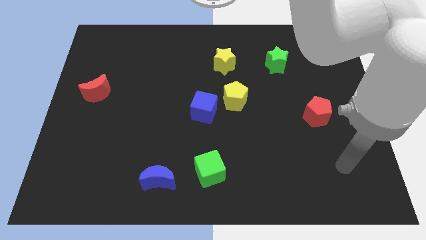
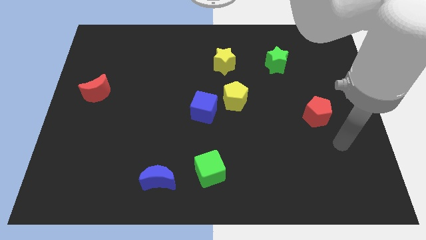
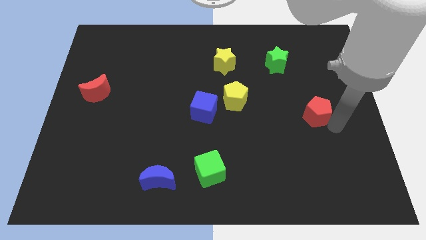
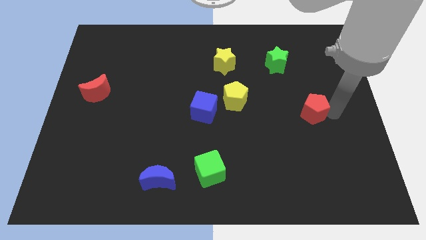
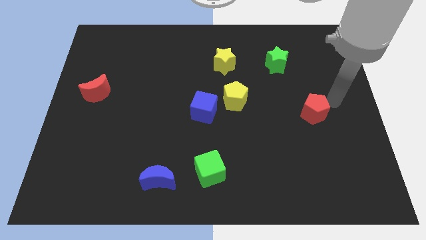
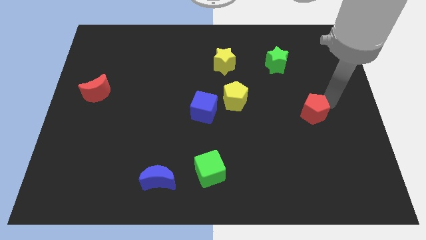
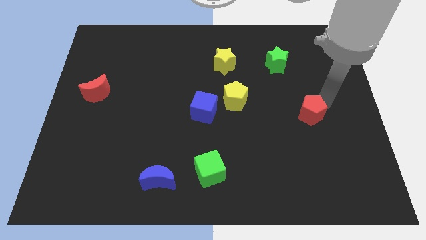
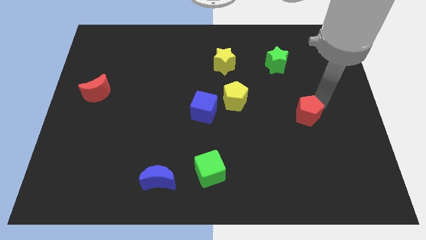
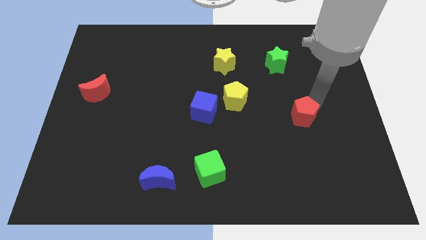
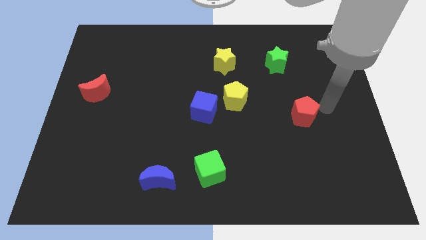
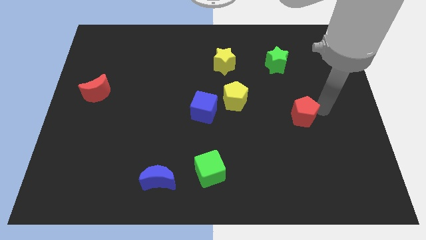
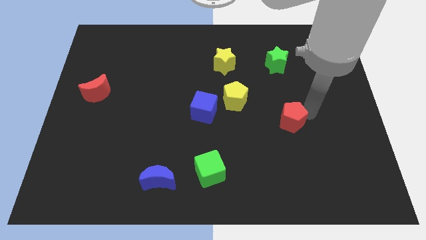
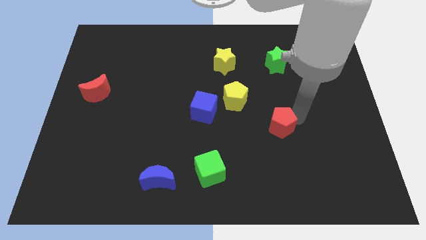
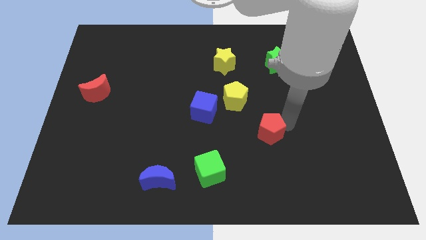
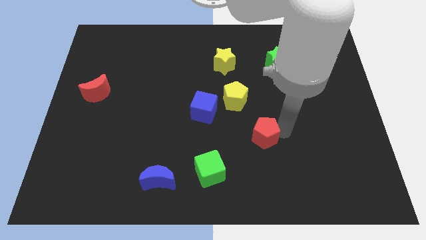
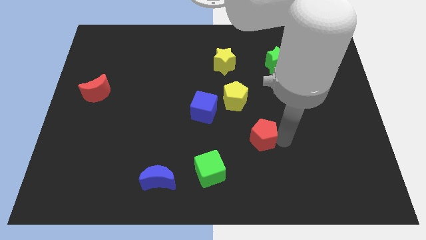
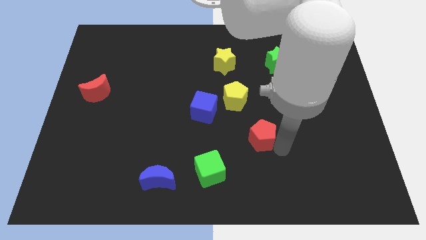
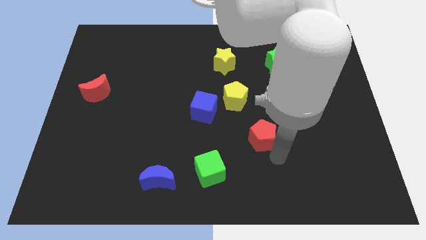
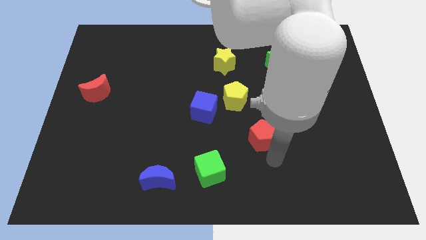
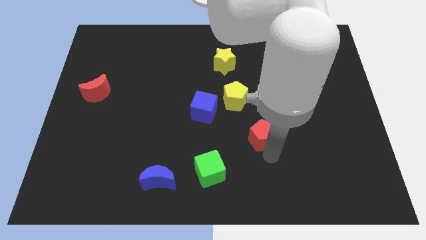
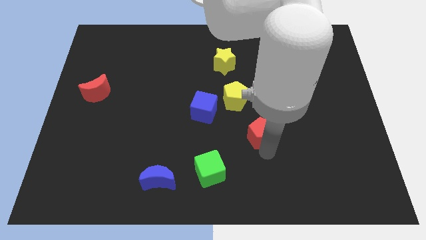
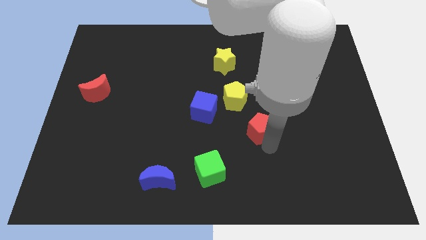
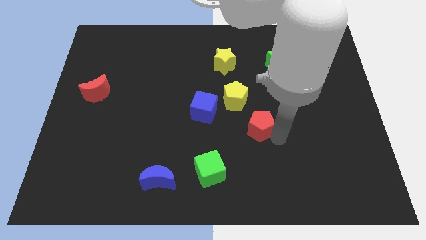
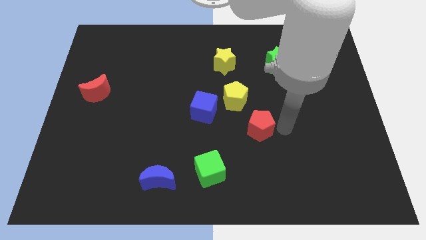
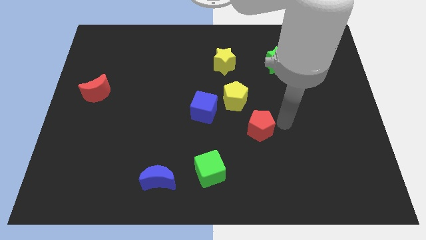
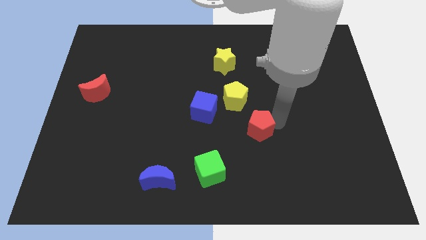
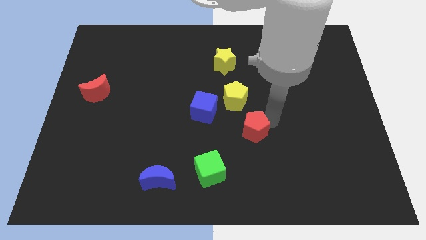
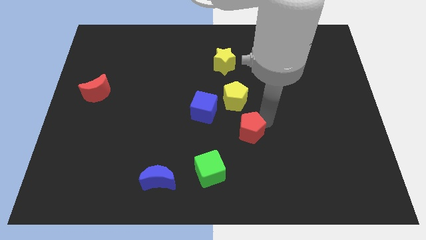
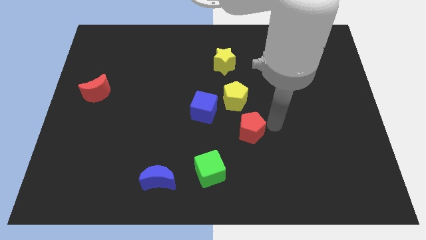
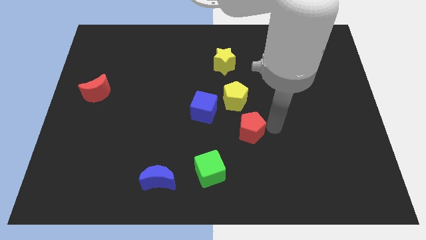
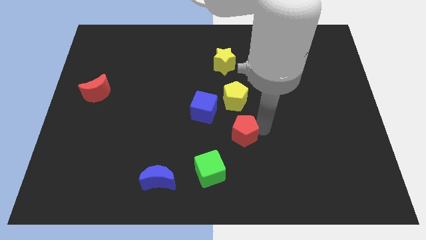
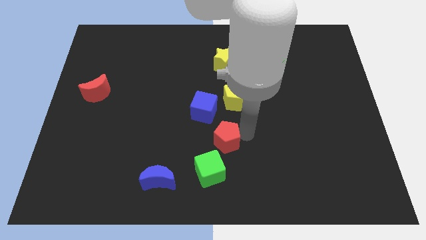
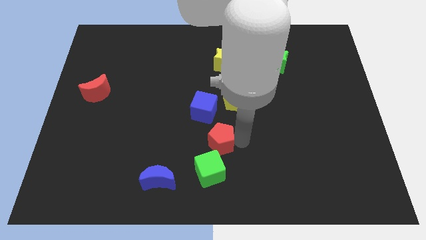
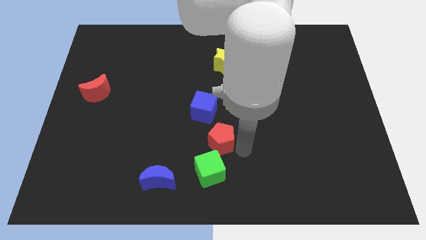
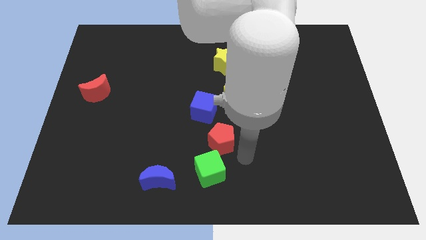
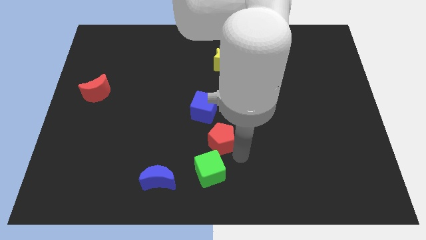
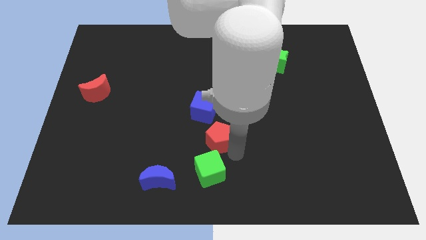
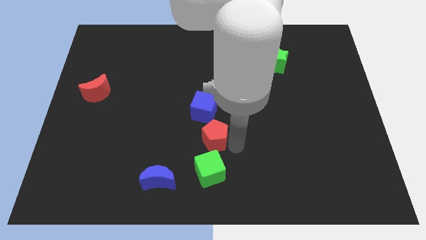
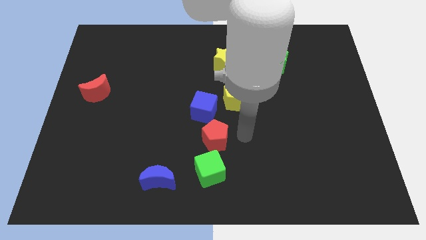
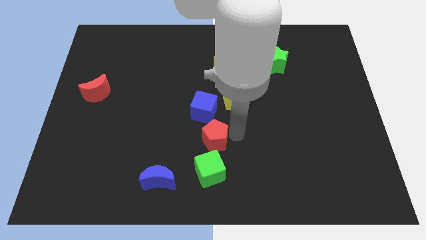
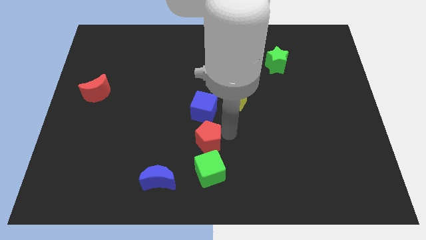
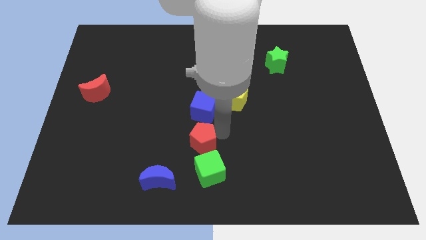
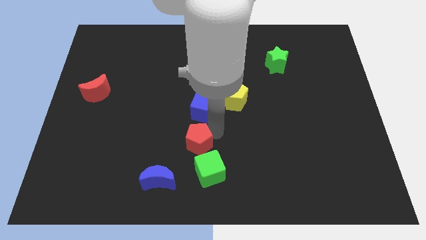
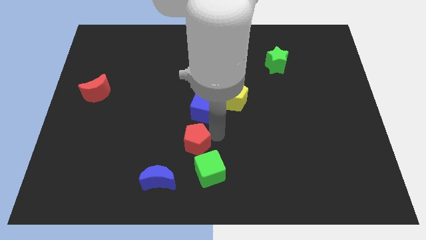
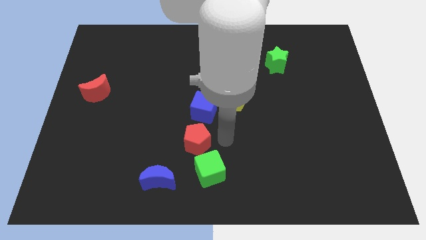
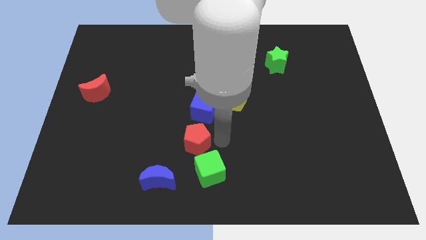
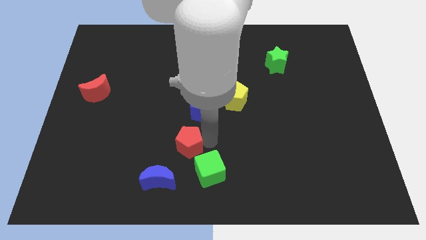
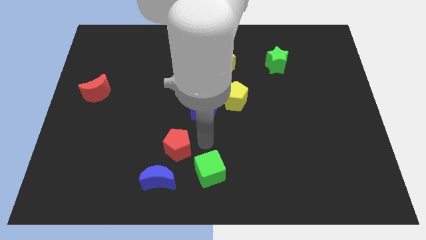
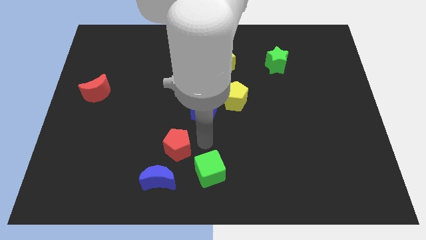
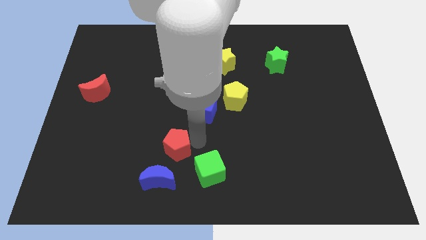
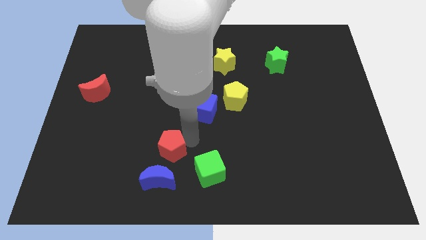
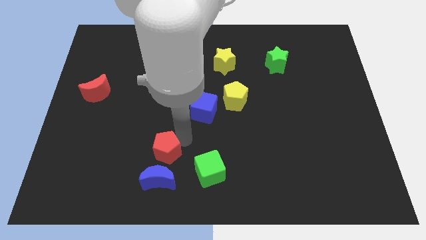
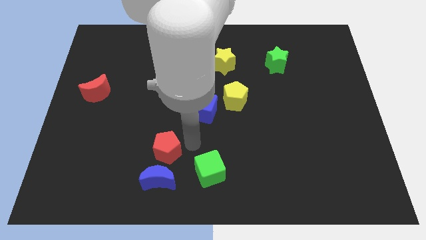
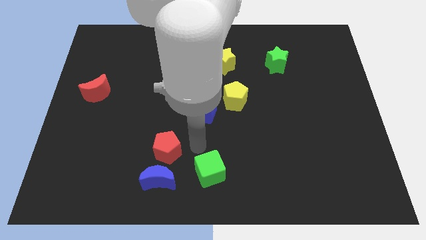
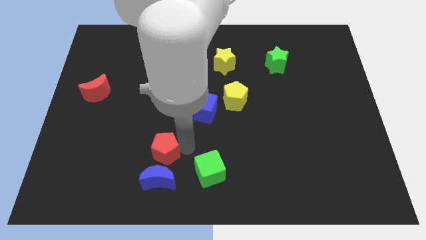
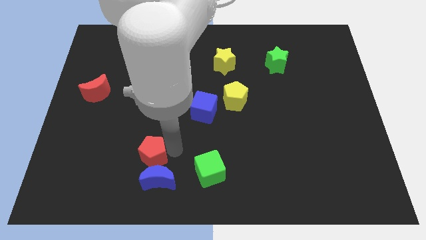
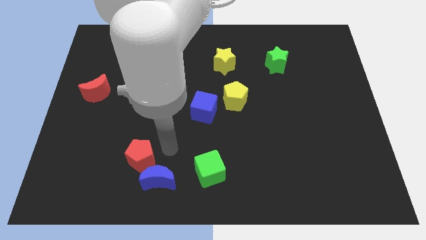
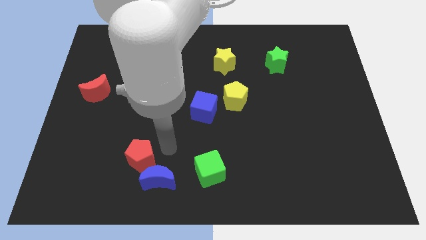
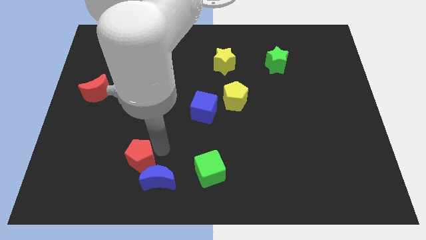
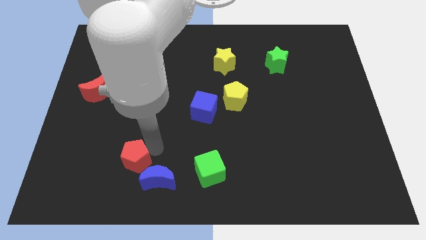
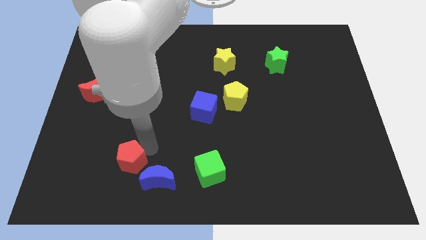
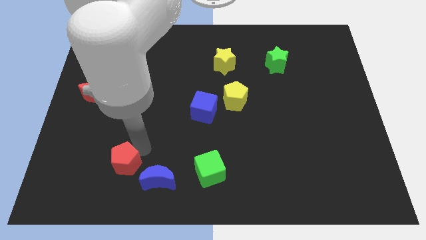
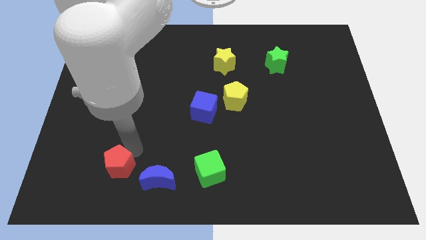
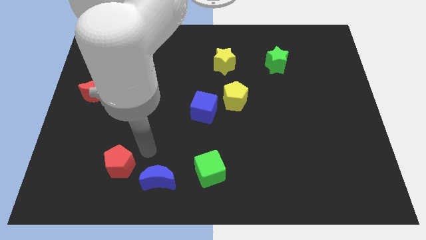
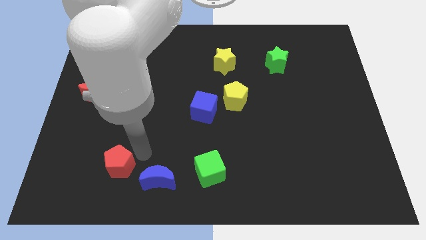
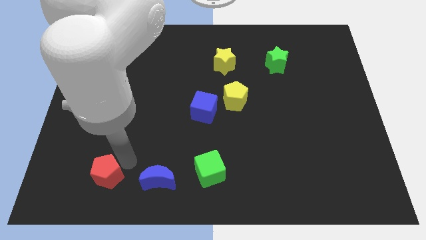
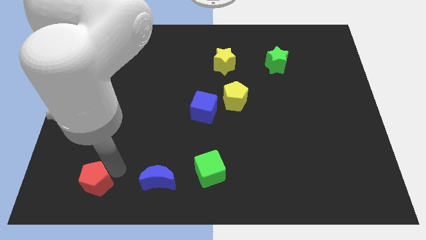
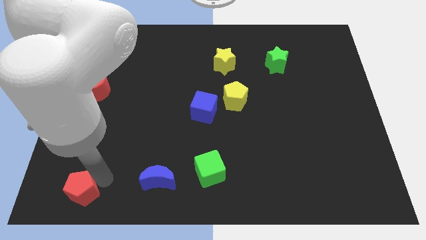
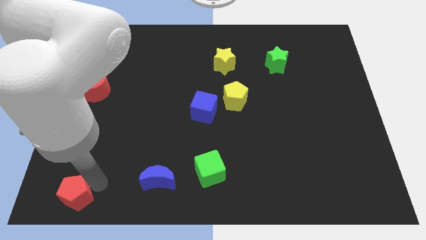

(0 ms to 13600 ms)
move the red pentagon to the bottom left of the board

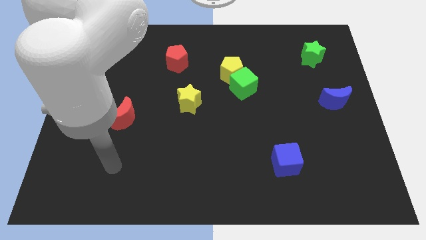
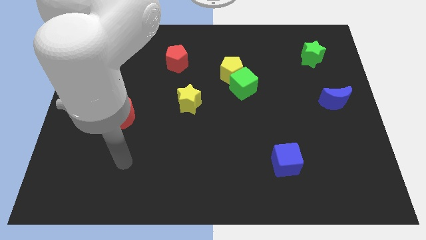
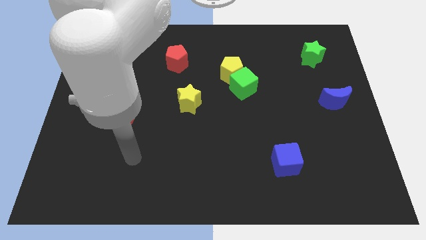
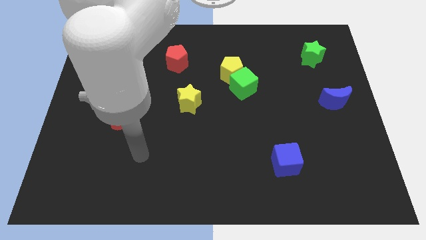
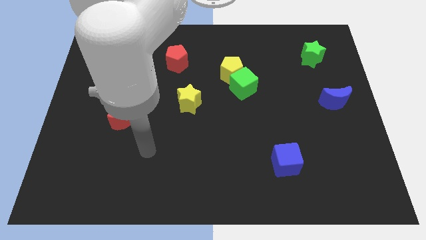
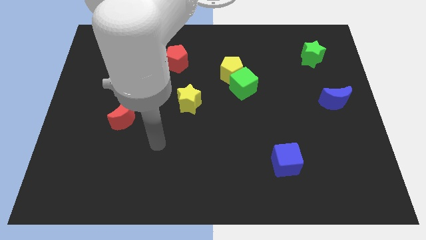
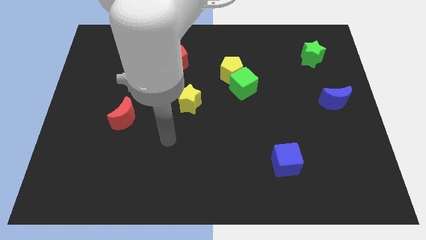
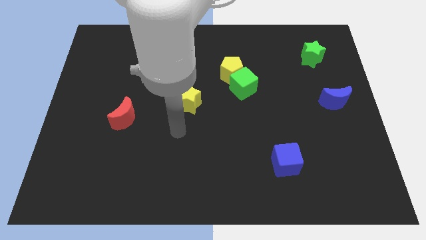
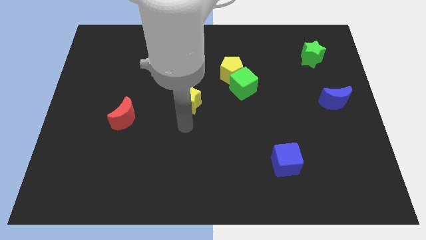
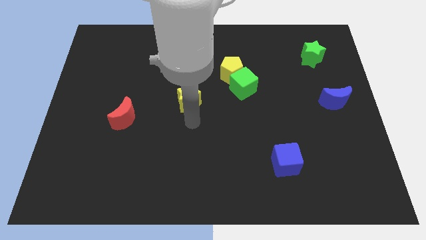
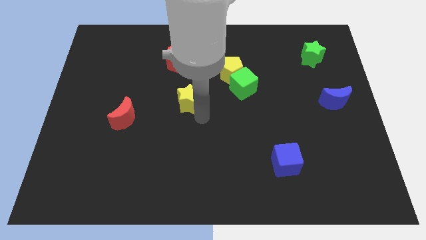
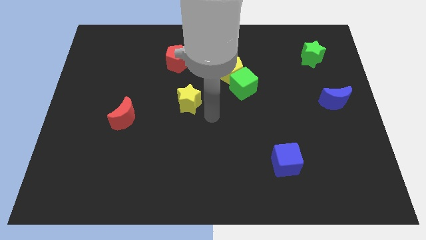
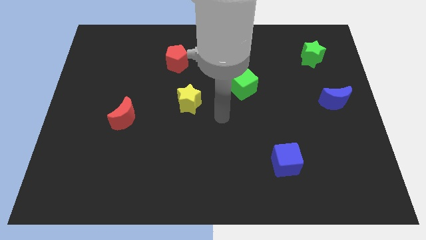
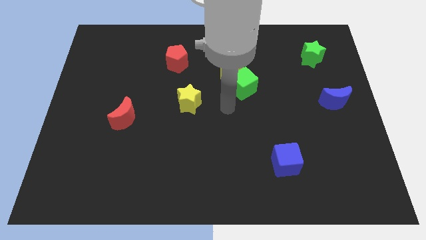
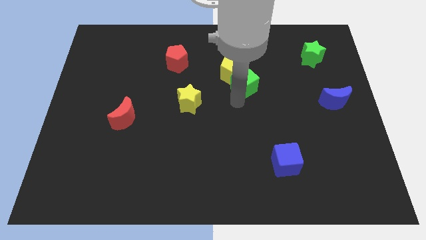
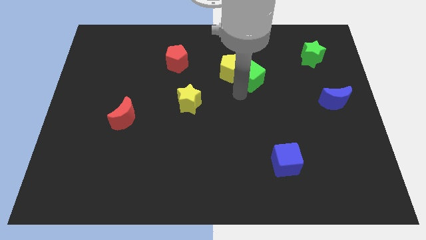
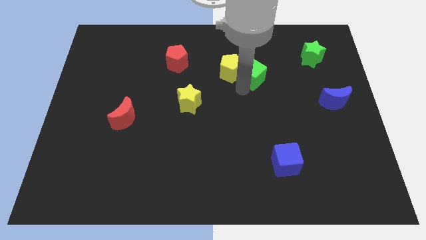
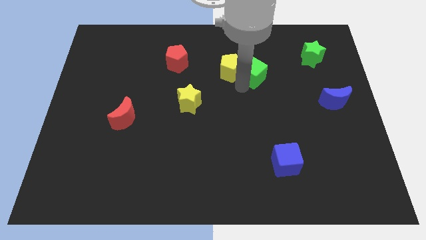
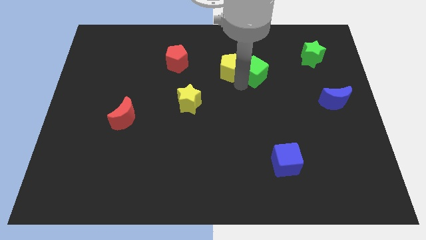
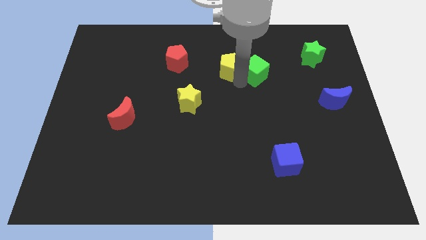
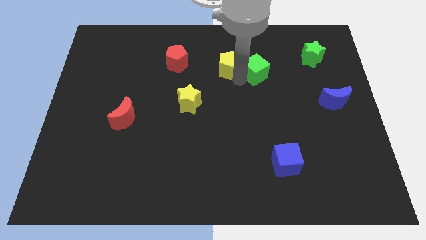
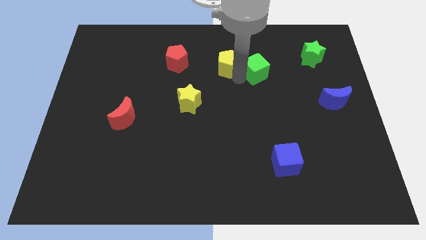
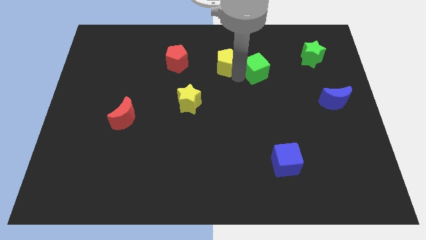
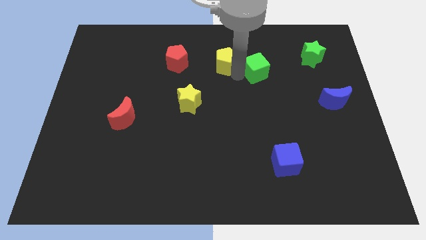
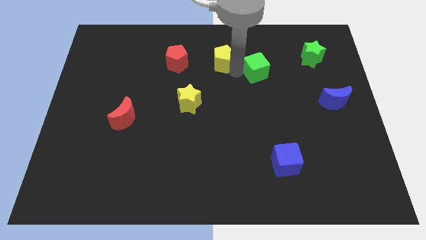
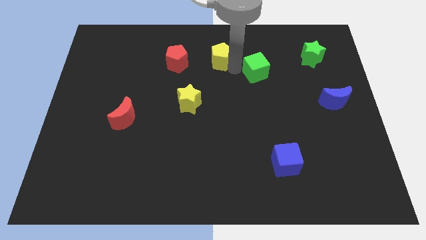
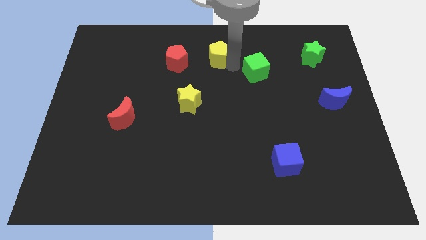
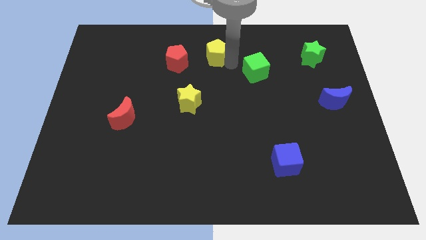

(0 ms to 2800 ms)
move the yellow pentagon to the towards your base
